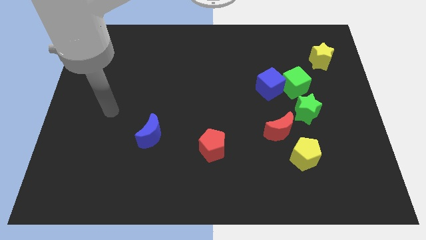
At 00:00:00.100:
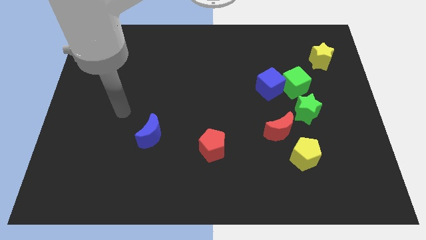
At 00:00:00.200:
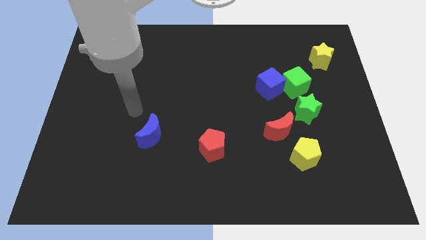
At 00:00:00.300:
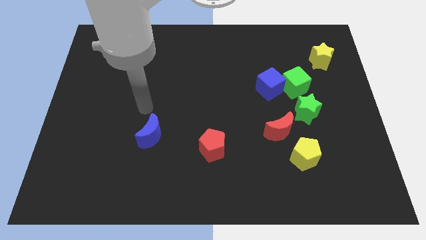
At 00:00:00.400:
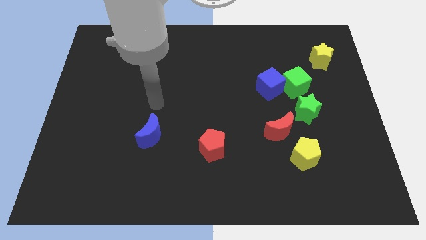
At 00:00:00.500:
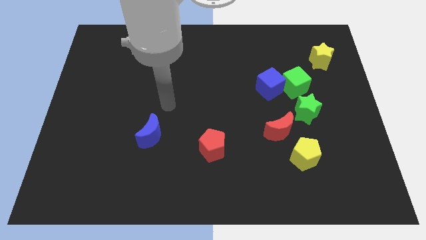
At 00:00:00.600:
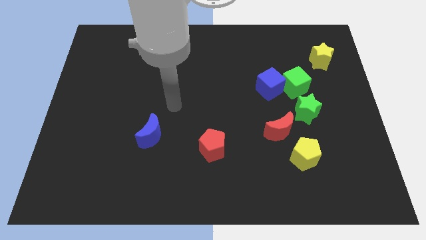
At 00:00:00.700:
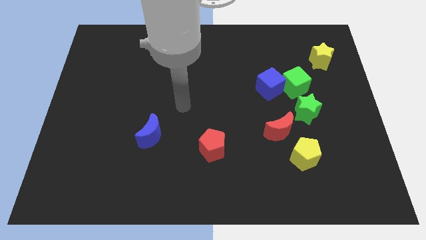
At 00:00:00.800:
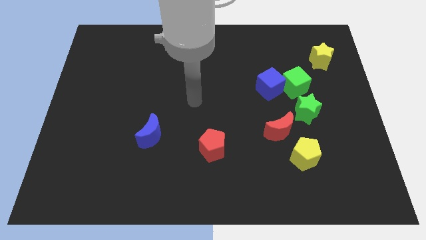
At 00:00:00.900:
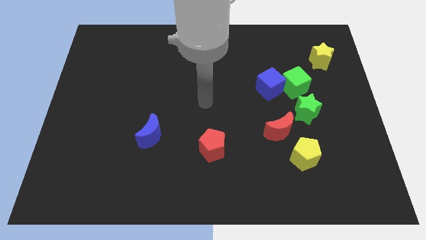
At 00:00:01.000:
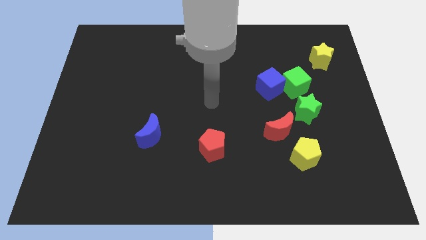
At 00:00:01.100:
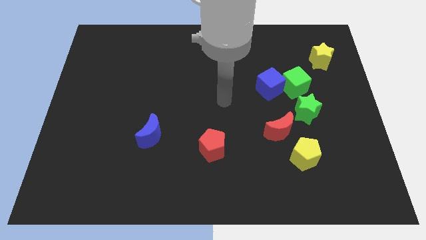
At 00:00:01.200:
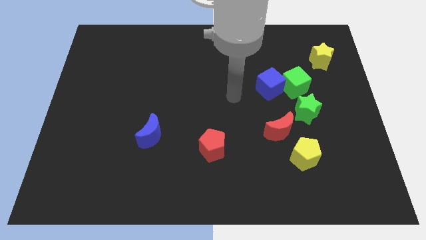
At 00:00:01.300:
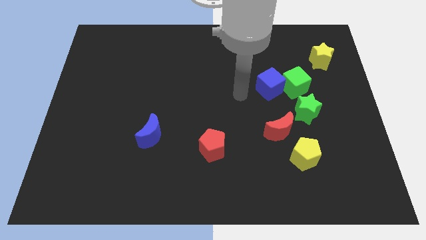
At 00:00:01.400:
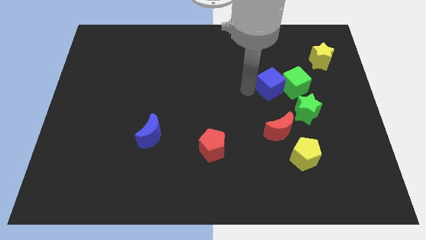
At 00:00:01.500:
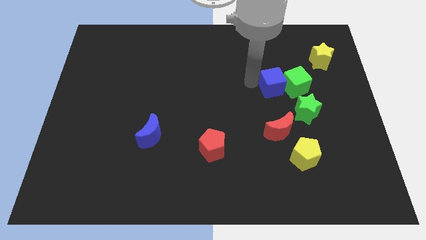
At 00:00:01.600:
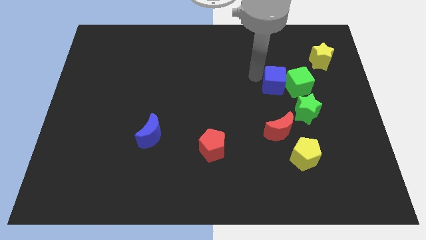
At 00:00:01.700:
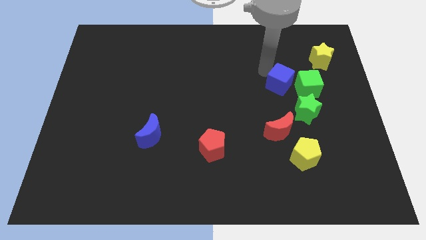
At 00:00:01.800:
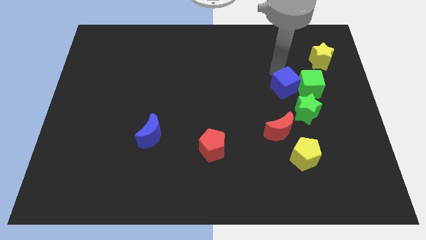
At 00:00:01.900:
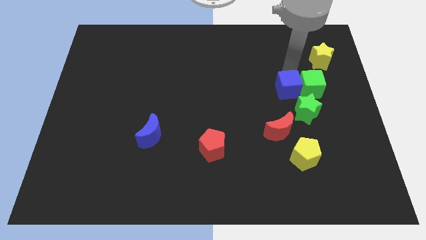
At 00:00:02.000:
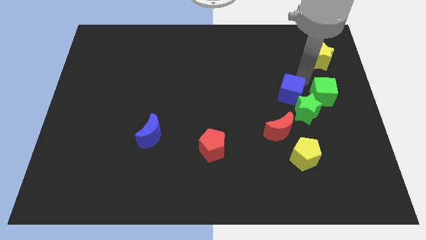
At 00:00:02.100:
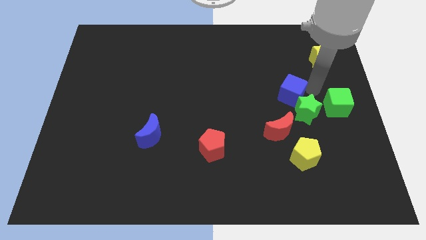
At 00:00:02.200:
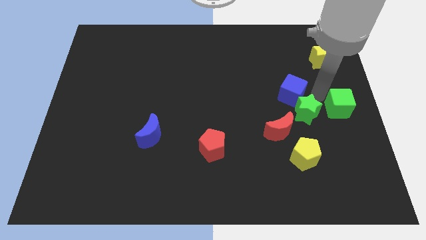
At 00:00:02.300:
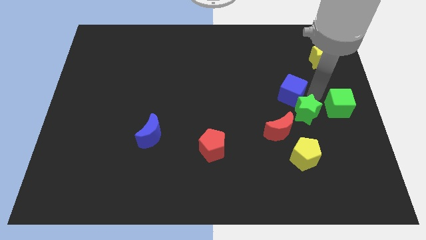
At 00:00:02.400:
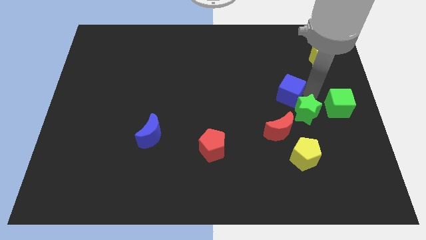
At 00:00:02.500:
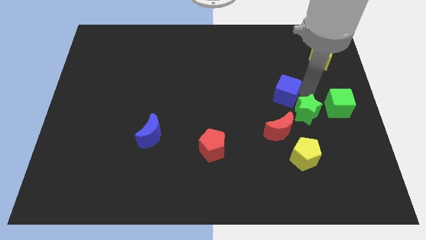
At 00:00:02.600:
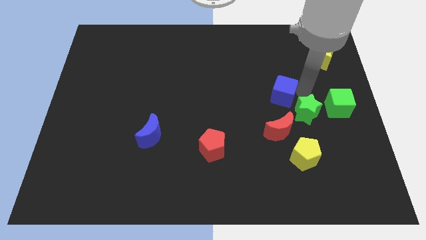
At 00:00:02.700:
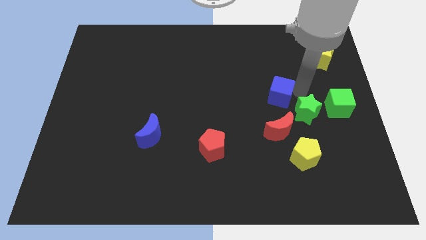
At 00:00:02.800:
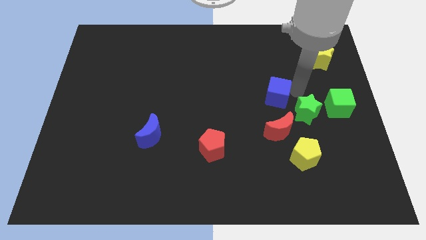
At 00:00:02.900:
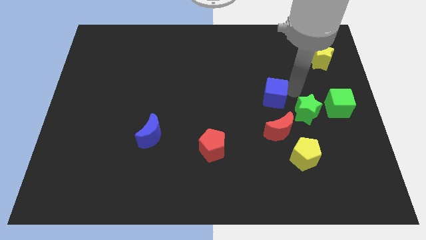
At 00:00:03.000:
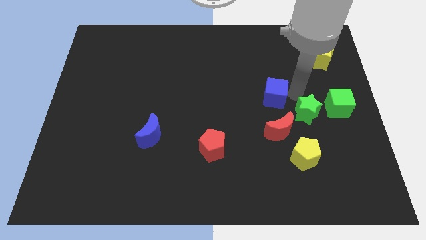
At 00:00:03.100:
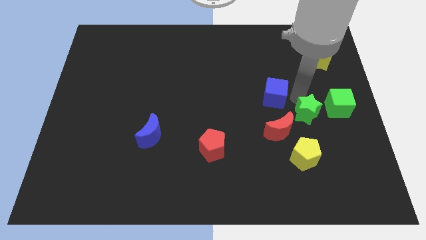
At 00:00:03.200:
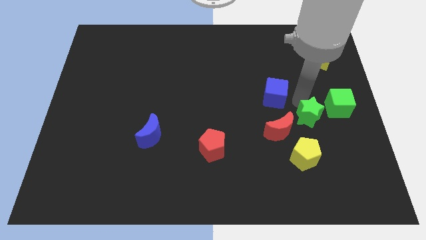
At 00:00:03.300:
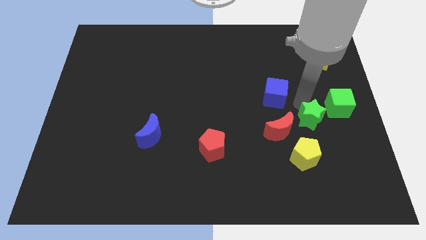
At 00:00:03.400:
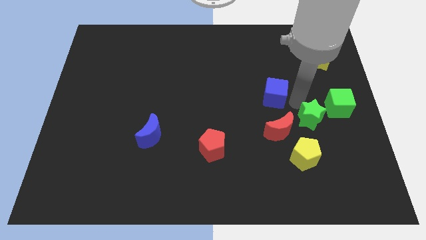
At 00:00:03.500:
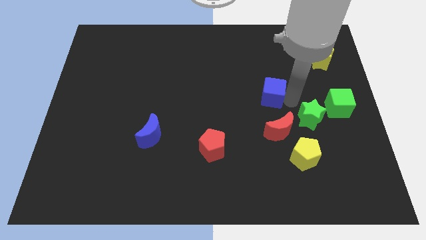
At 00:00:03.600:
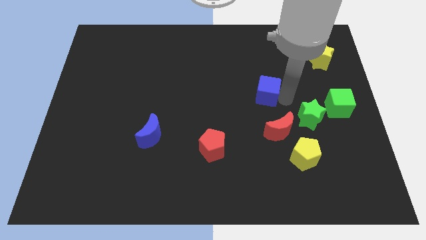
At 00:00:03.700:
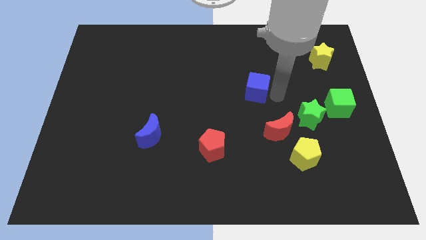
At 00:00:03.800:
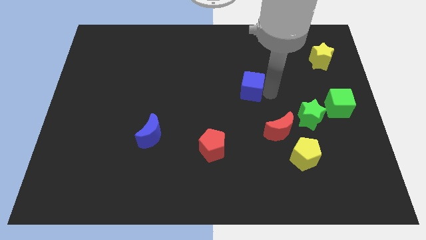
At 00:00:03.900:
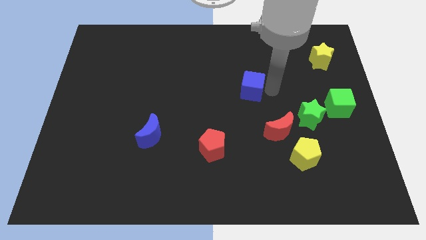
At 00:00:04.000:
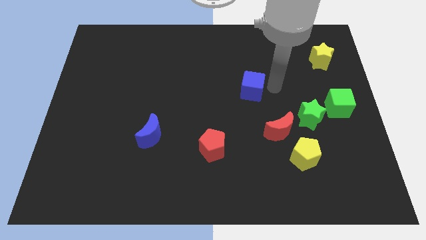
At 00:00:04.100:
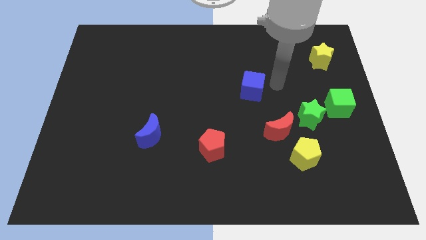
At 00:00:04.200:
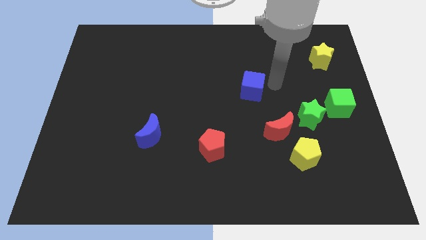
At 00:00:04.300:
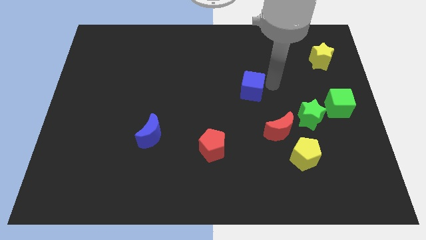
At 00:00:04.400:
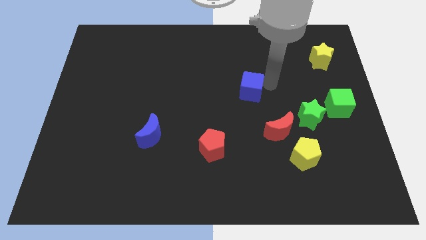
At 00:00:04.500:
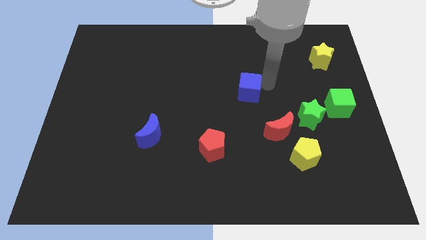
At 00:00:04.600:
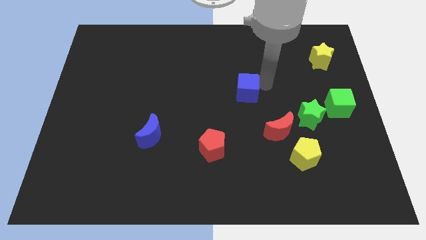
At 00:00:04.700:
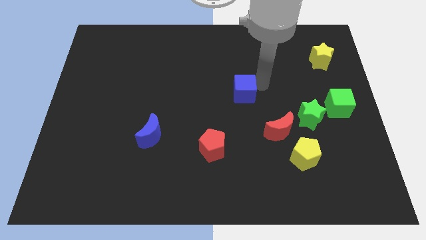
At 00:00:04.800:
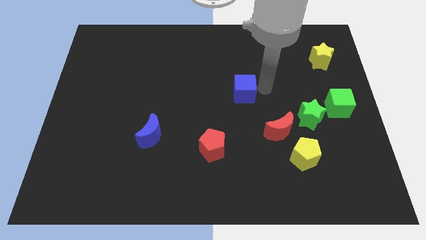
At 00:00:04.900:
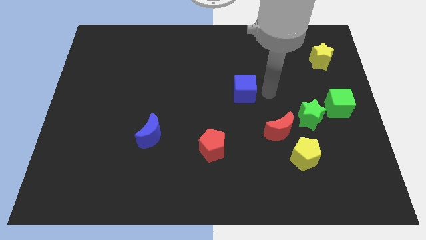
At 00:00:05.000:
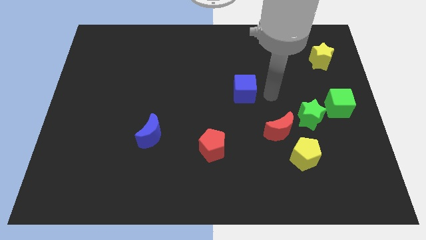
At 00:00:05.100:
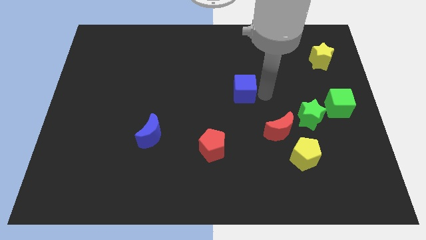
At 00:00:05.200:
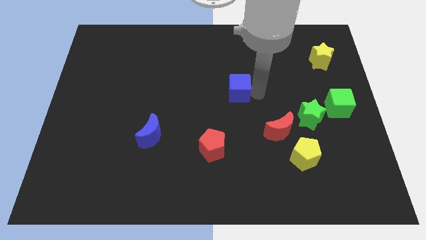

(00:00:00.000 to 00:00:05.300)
slightly move the blue cube to the left

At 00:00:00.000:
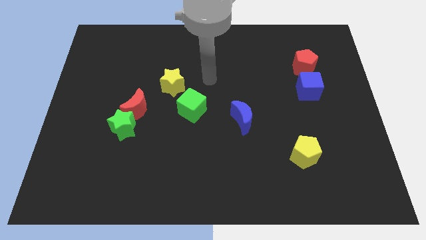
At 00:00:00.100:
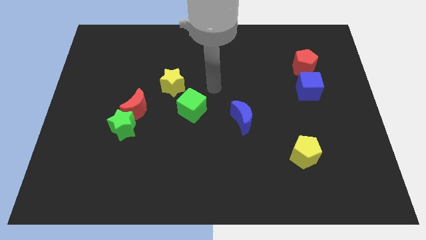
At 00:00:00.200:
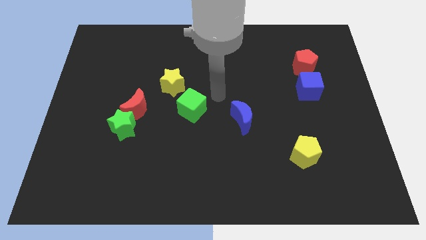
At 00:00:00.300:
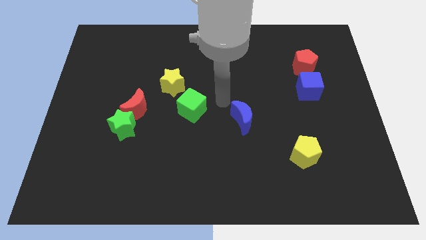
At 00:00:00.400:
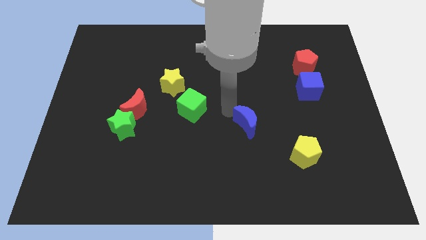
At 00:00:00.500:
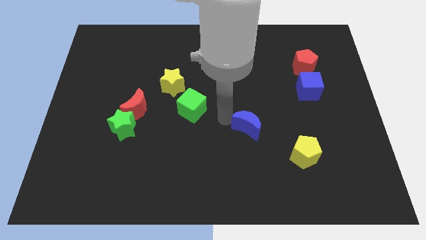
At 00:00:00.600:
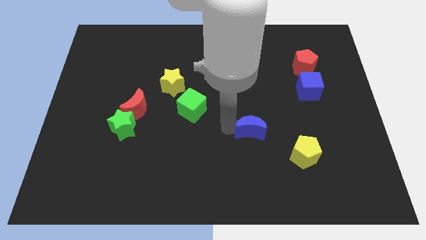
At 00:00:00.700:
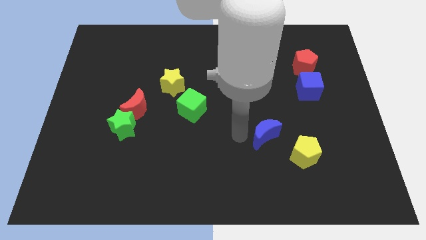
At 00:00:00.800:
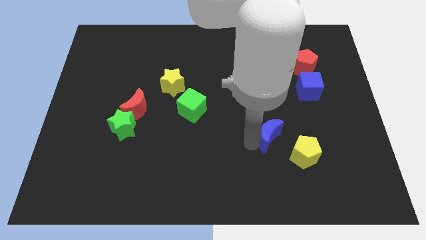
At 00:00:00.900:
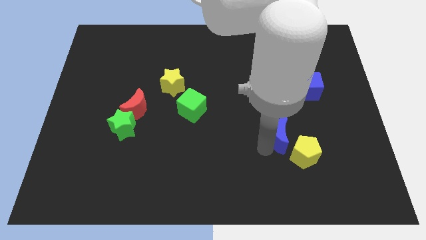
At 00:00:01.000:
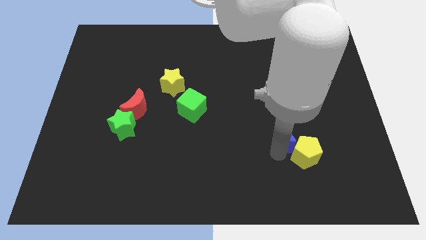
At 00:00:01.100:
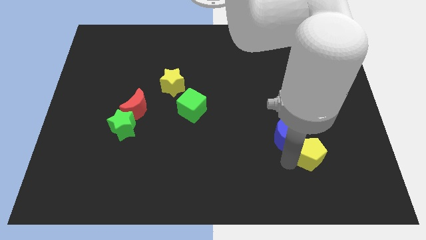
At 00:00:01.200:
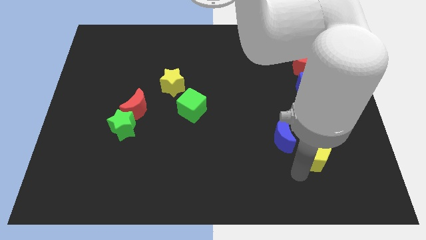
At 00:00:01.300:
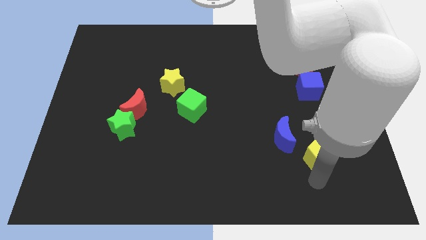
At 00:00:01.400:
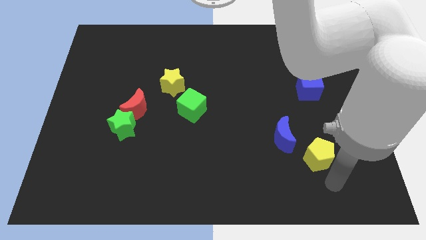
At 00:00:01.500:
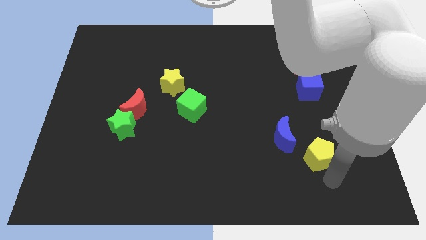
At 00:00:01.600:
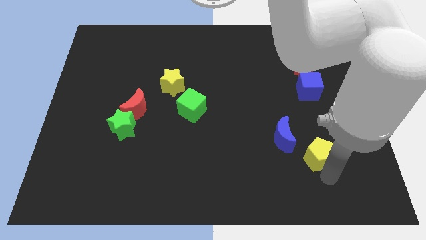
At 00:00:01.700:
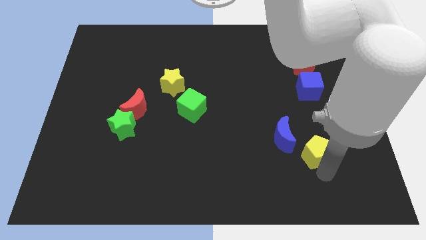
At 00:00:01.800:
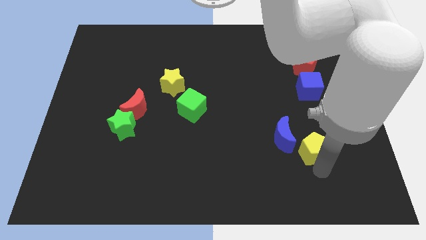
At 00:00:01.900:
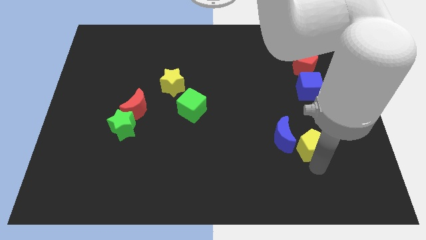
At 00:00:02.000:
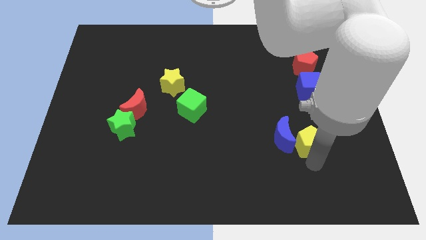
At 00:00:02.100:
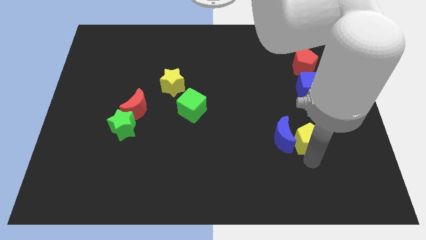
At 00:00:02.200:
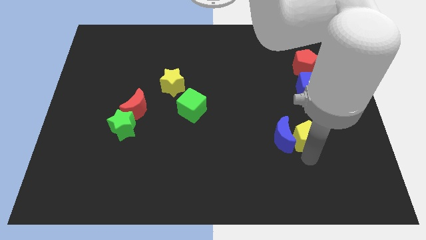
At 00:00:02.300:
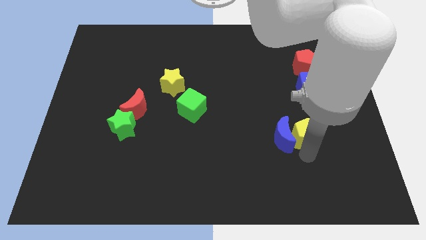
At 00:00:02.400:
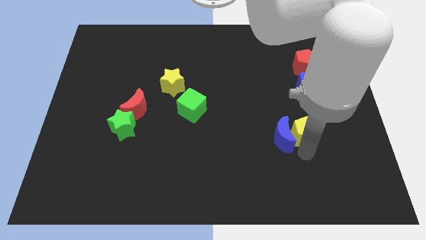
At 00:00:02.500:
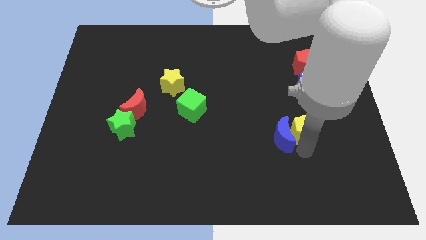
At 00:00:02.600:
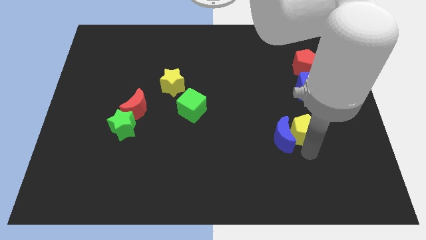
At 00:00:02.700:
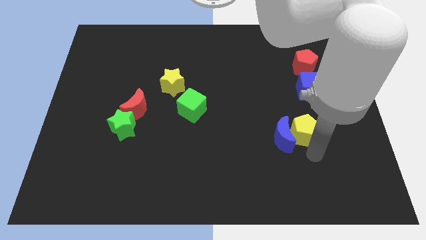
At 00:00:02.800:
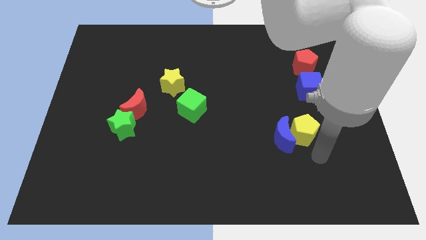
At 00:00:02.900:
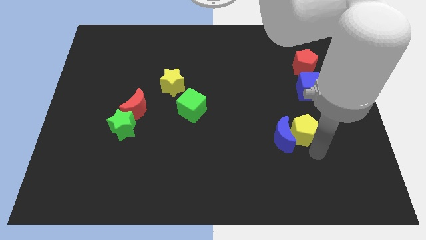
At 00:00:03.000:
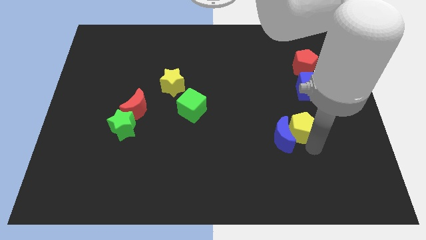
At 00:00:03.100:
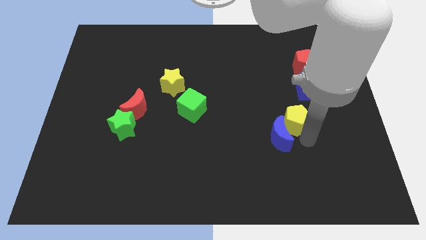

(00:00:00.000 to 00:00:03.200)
slightly push the yellow pentagon upwards
